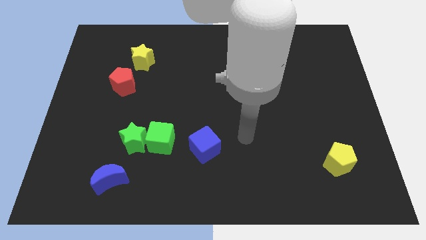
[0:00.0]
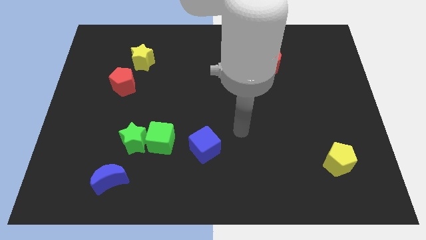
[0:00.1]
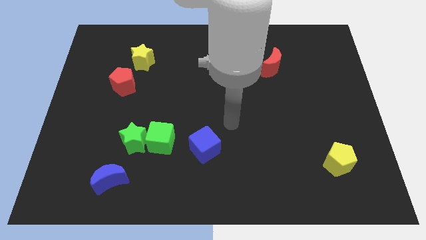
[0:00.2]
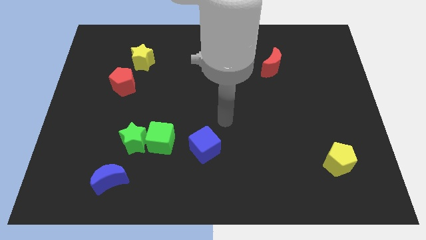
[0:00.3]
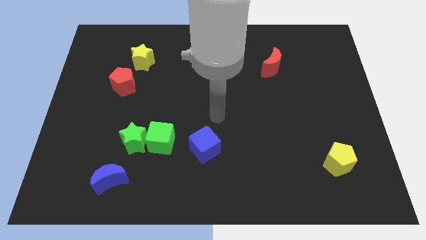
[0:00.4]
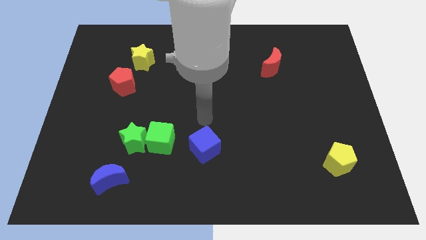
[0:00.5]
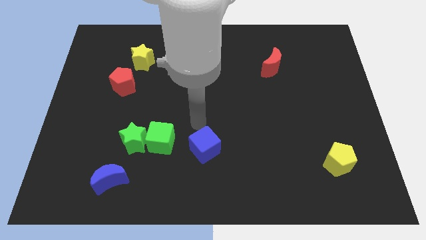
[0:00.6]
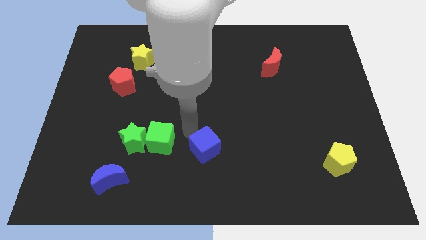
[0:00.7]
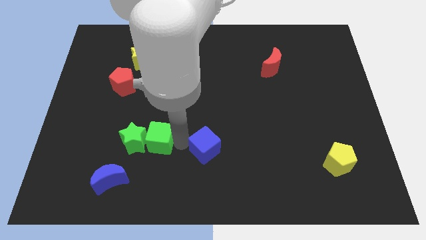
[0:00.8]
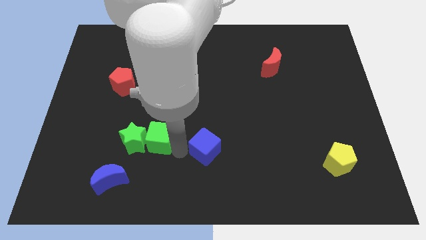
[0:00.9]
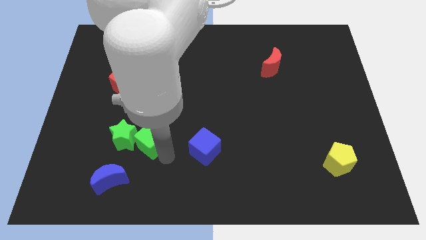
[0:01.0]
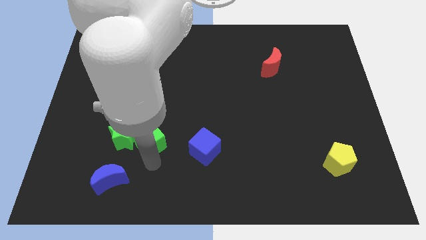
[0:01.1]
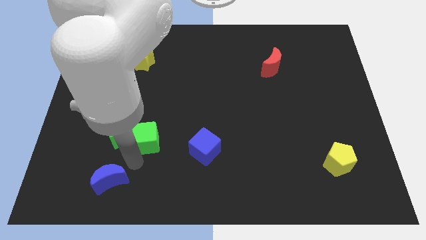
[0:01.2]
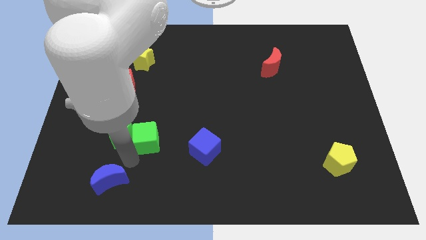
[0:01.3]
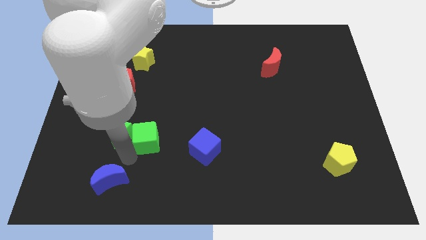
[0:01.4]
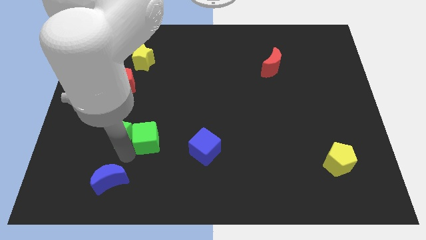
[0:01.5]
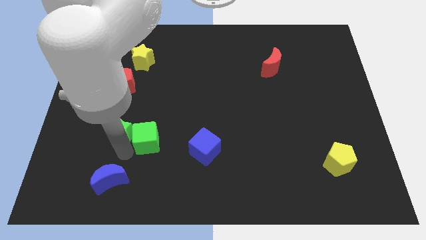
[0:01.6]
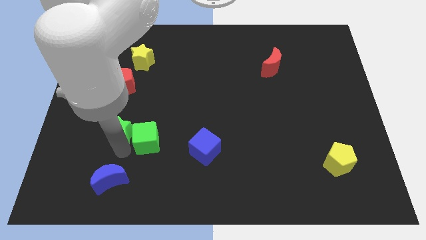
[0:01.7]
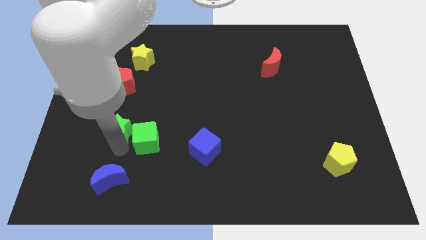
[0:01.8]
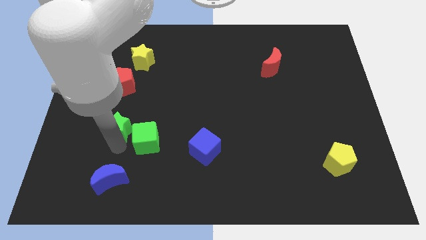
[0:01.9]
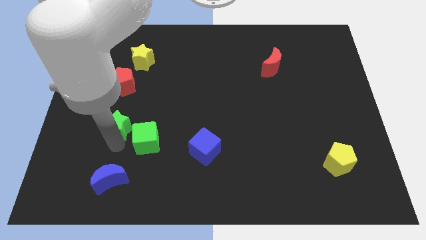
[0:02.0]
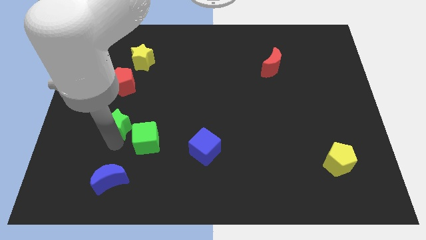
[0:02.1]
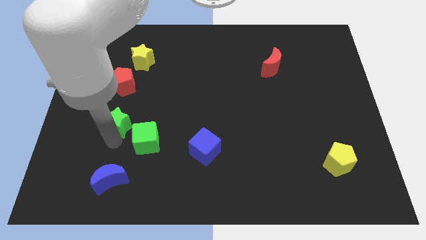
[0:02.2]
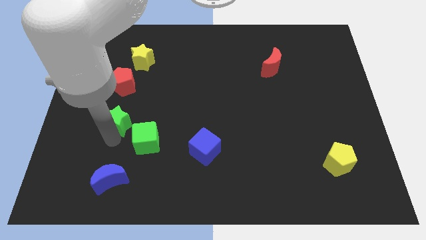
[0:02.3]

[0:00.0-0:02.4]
separate the green star from the green cube and blue moon

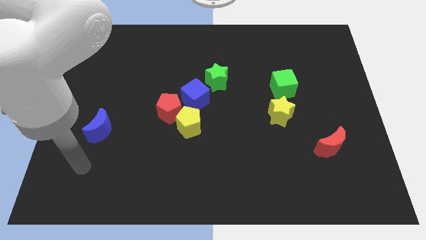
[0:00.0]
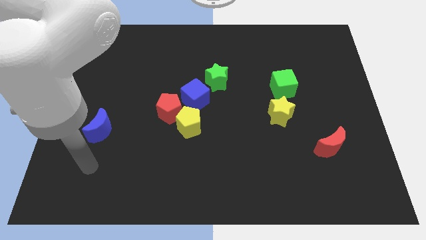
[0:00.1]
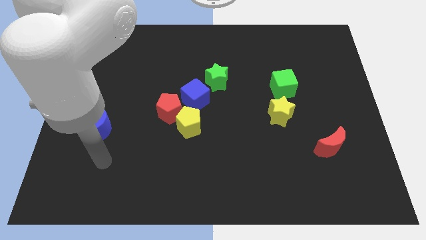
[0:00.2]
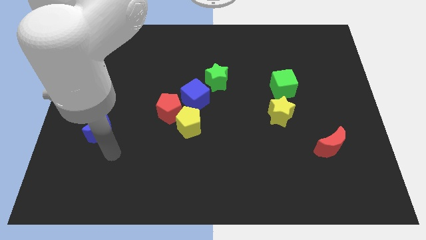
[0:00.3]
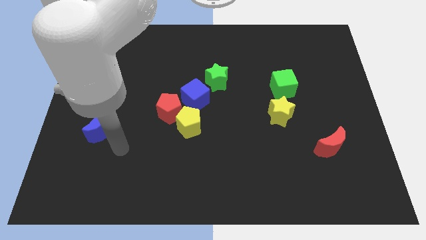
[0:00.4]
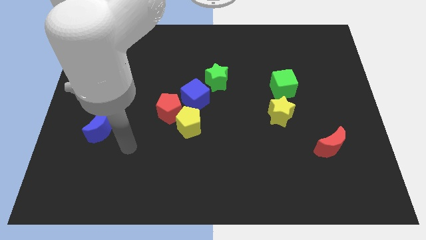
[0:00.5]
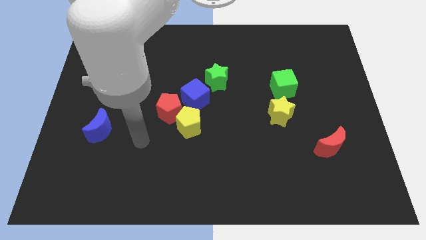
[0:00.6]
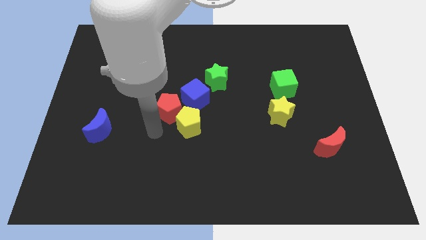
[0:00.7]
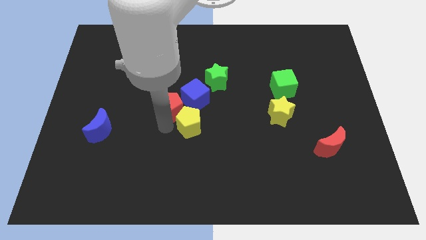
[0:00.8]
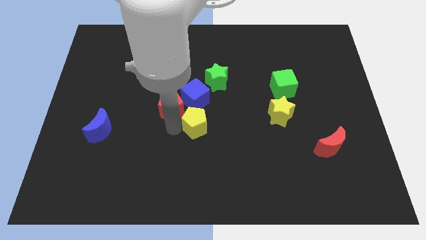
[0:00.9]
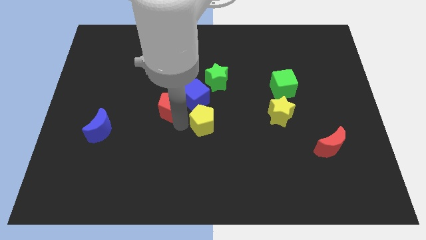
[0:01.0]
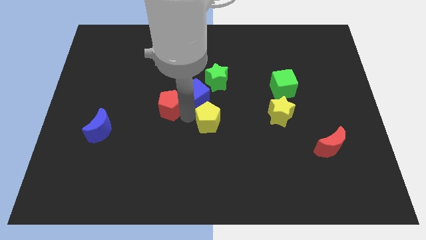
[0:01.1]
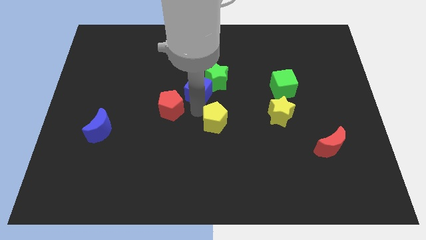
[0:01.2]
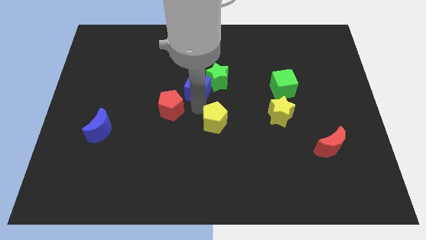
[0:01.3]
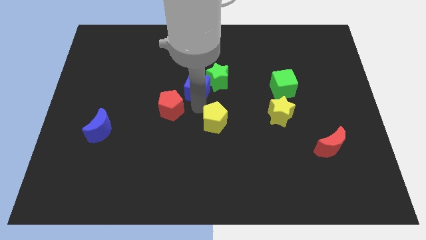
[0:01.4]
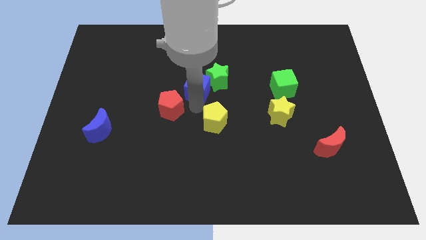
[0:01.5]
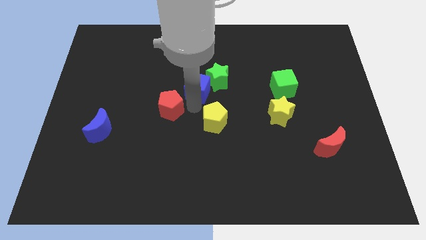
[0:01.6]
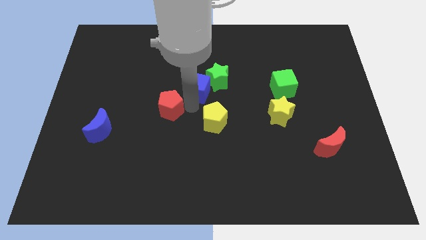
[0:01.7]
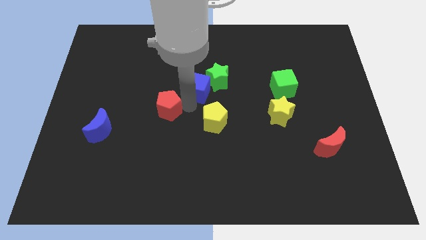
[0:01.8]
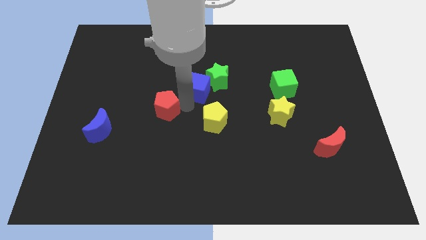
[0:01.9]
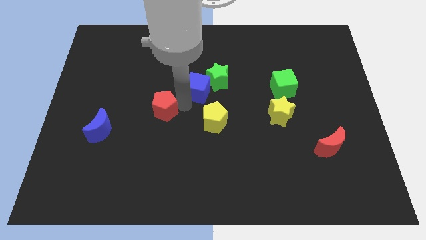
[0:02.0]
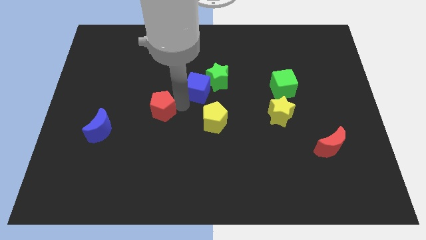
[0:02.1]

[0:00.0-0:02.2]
move the red pentagon away from the yellow pentagon and blue cube

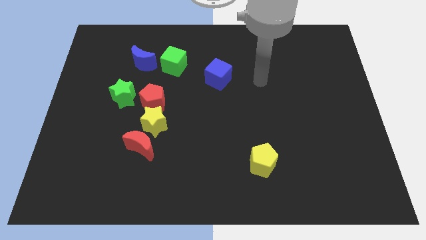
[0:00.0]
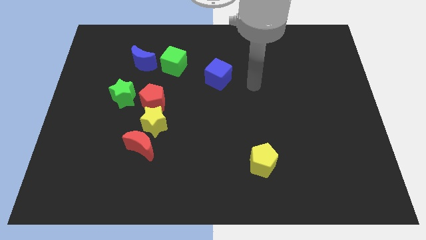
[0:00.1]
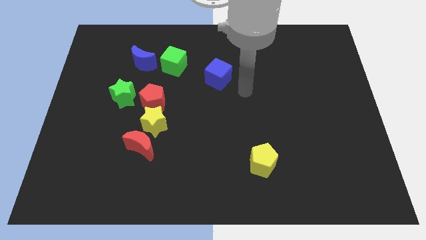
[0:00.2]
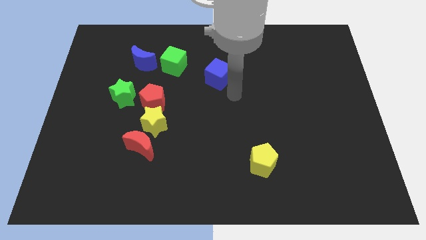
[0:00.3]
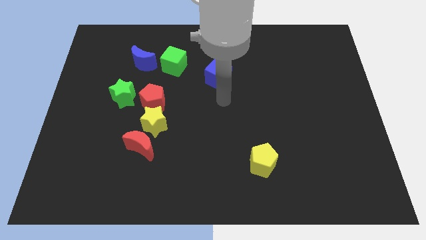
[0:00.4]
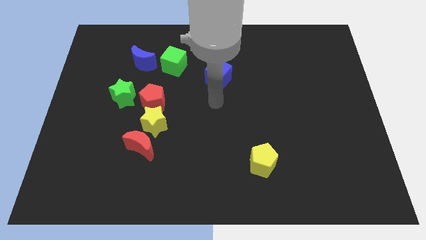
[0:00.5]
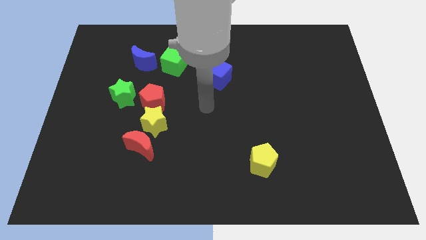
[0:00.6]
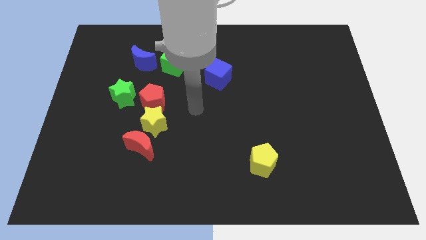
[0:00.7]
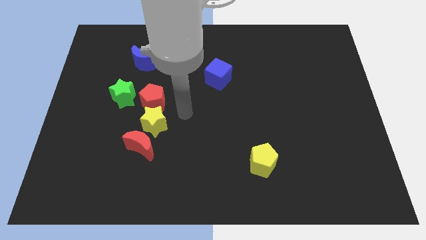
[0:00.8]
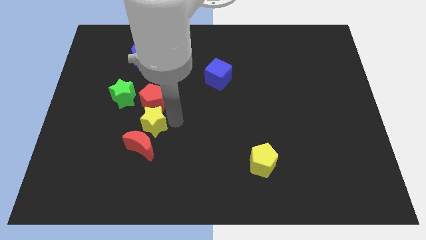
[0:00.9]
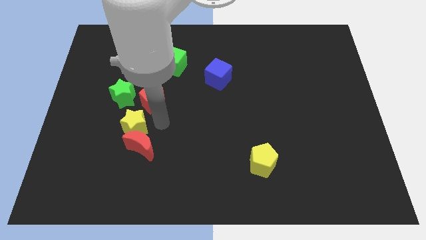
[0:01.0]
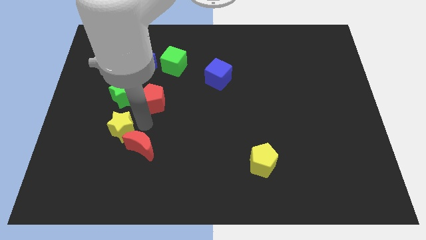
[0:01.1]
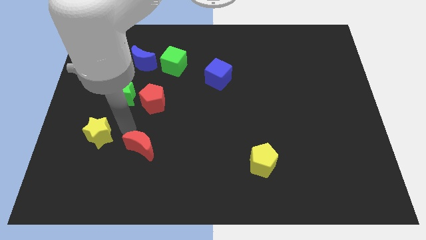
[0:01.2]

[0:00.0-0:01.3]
separate the red moon from the yellow star

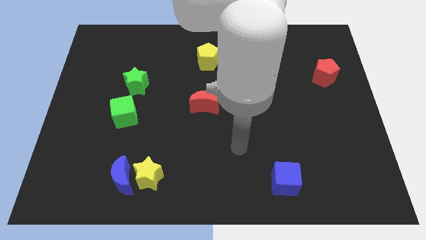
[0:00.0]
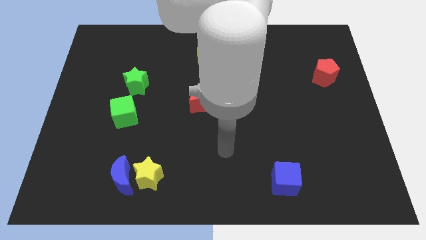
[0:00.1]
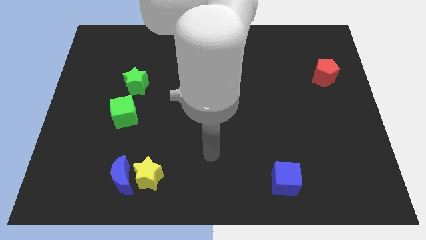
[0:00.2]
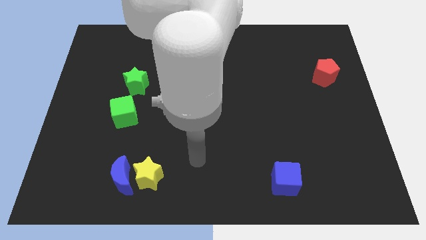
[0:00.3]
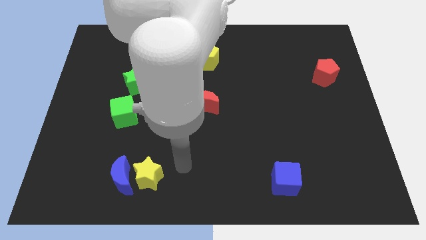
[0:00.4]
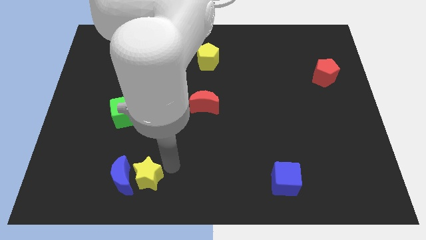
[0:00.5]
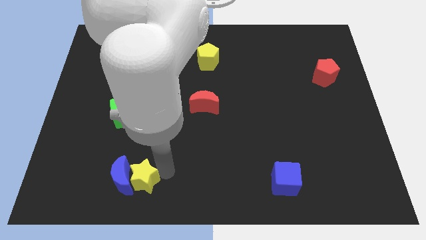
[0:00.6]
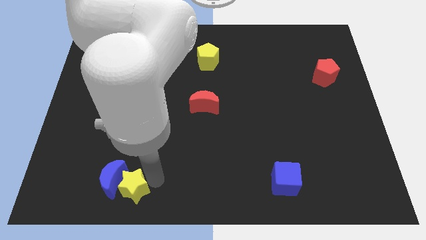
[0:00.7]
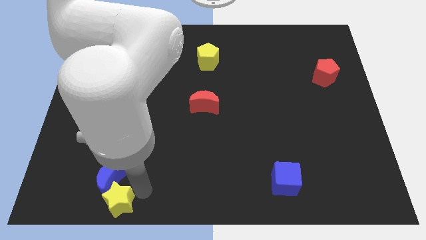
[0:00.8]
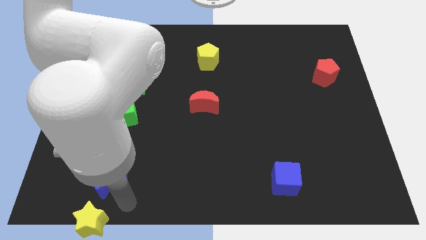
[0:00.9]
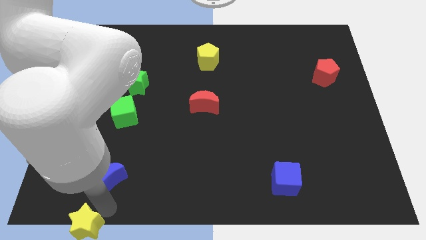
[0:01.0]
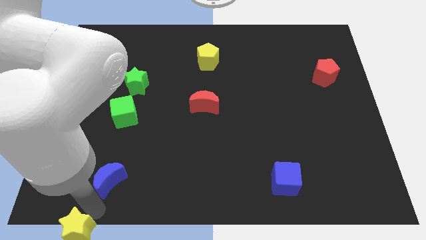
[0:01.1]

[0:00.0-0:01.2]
move the blue moon away from the yellow star

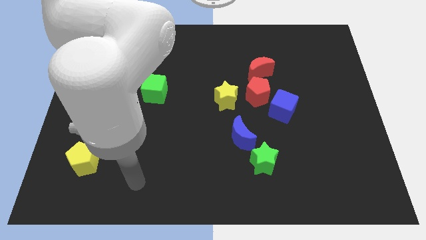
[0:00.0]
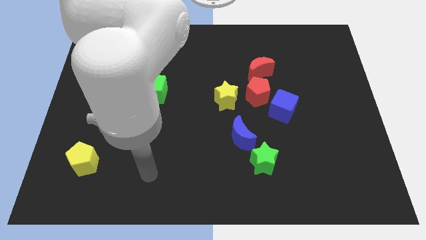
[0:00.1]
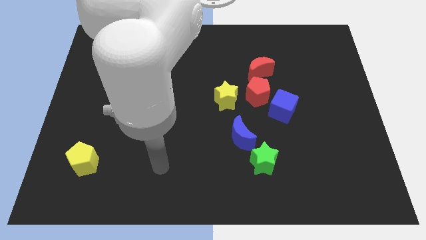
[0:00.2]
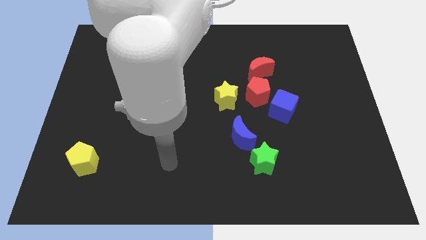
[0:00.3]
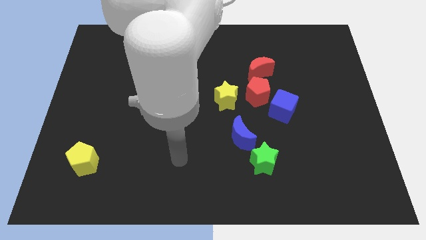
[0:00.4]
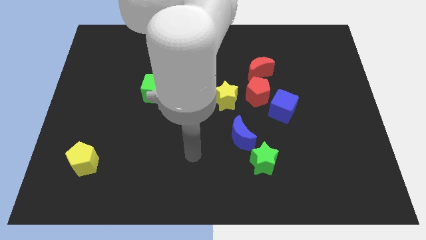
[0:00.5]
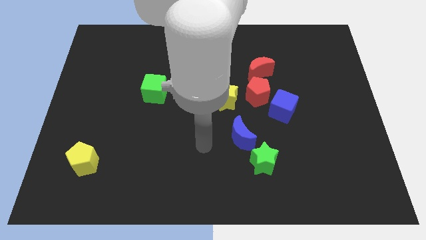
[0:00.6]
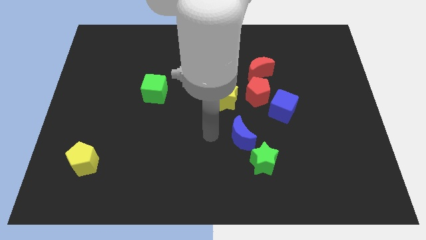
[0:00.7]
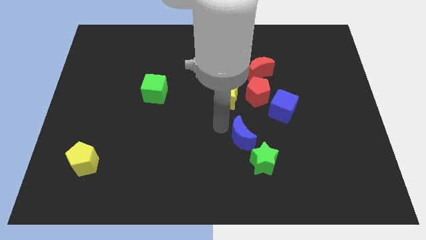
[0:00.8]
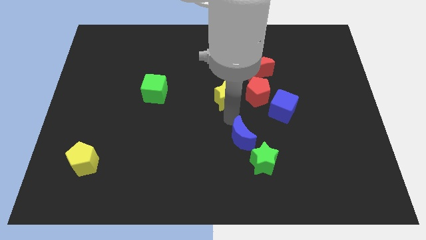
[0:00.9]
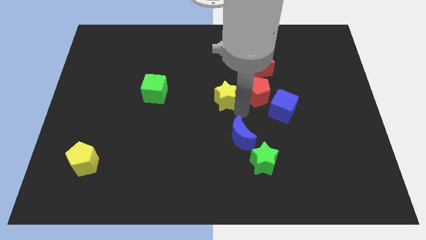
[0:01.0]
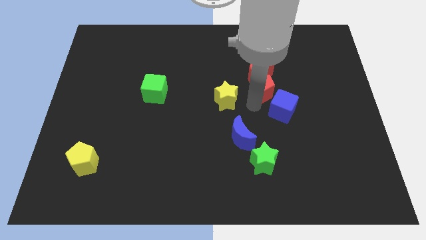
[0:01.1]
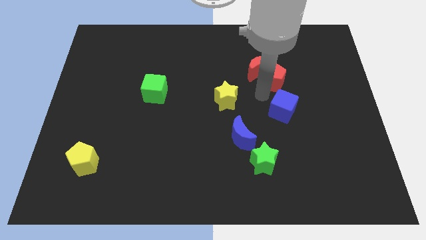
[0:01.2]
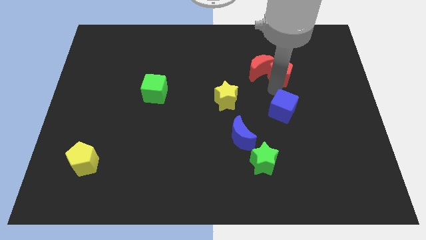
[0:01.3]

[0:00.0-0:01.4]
move the blue cube away from the red pentagon

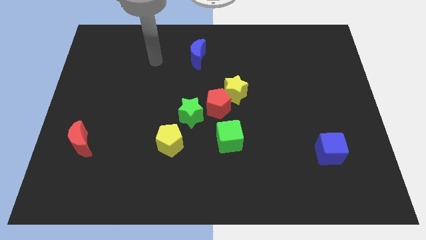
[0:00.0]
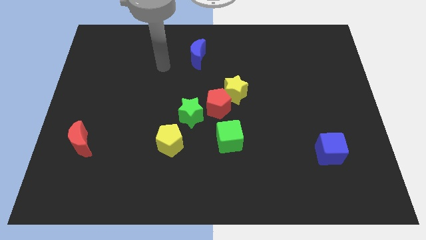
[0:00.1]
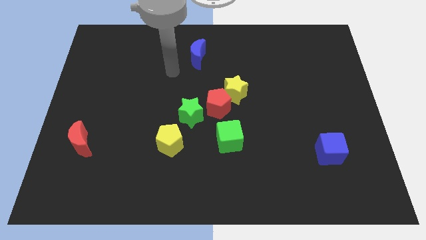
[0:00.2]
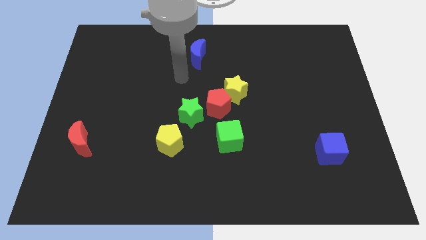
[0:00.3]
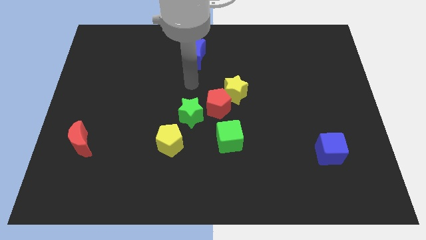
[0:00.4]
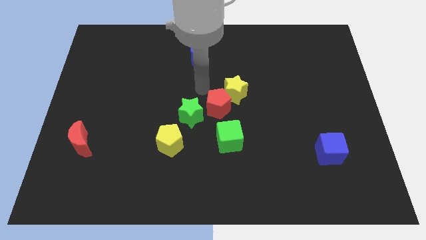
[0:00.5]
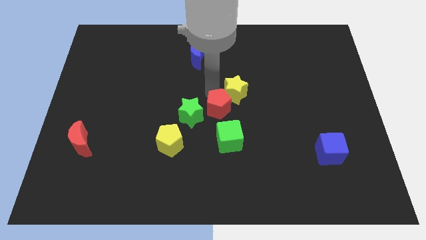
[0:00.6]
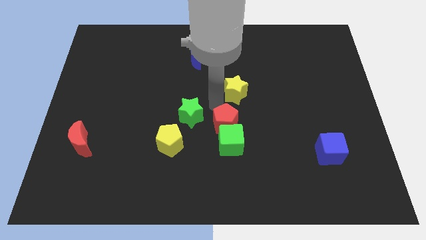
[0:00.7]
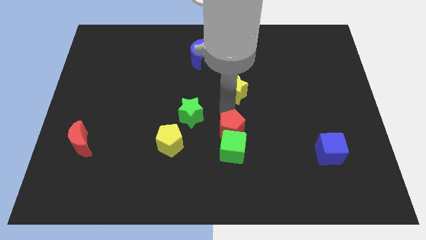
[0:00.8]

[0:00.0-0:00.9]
move the yellow star away from the red pentagon

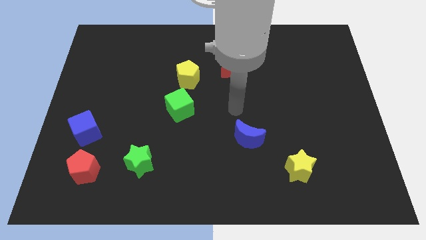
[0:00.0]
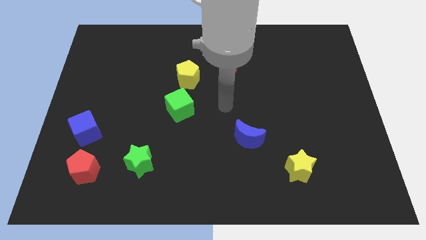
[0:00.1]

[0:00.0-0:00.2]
pull the green cube apart from the yellow pentagon
